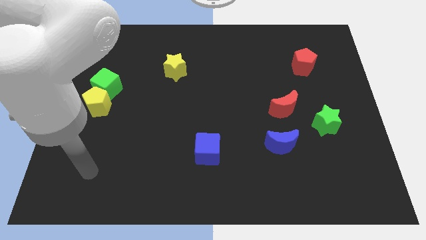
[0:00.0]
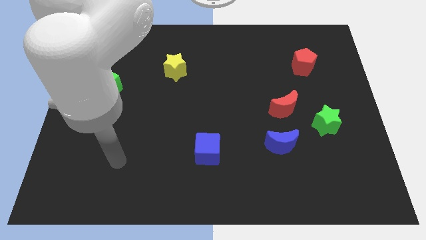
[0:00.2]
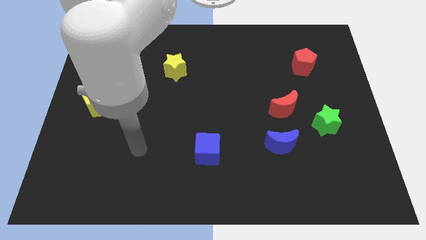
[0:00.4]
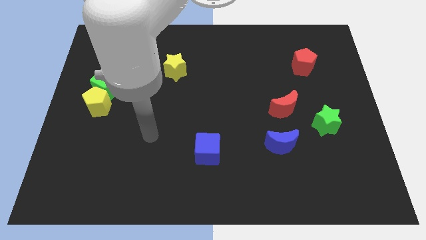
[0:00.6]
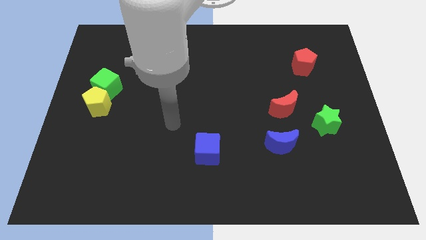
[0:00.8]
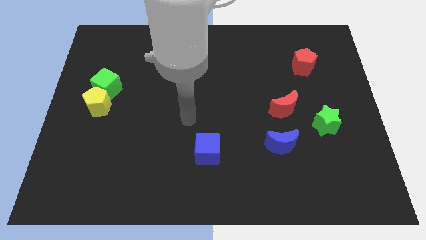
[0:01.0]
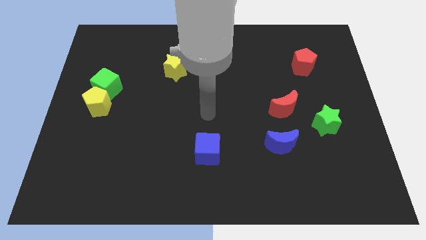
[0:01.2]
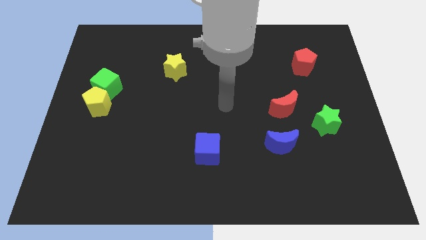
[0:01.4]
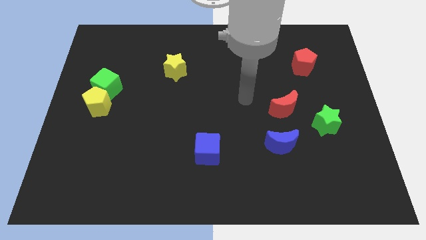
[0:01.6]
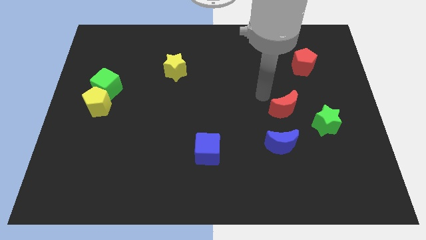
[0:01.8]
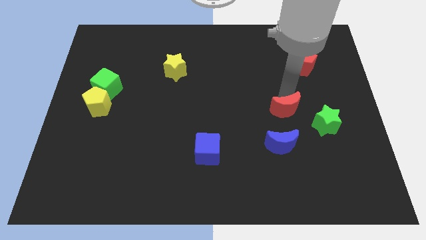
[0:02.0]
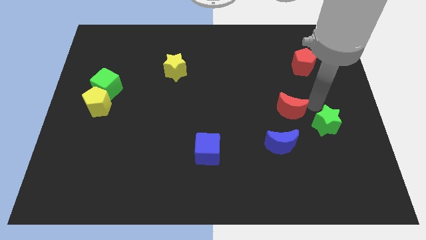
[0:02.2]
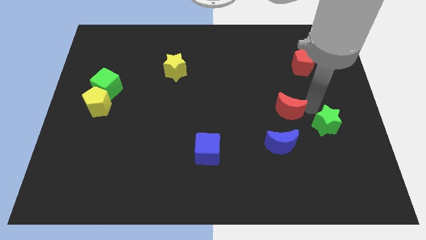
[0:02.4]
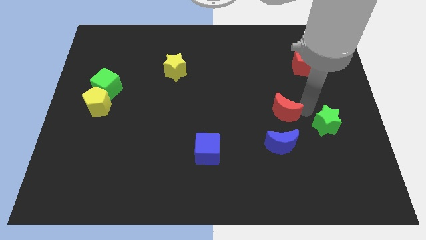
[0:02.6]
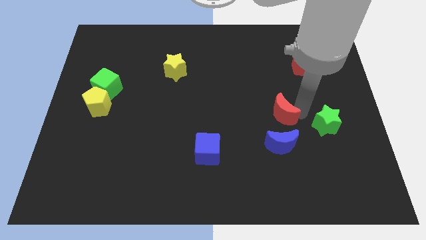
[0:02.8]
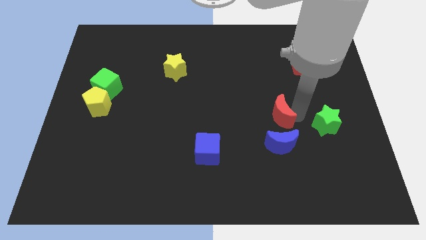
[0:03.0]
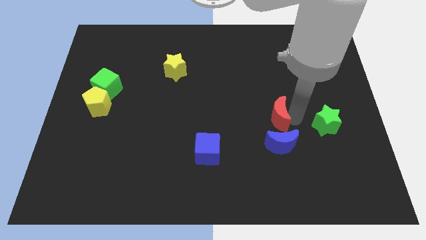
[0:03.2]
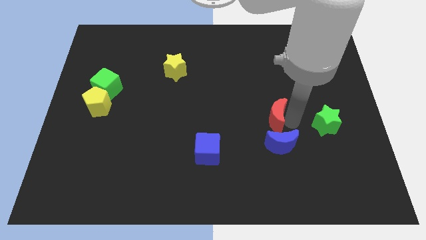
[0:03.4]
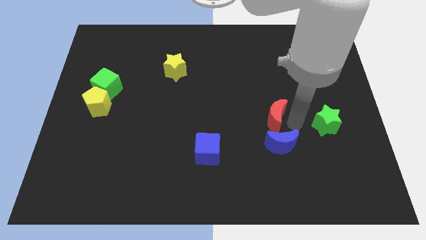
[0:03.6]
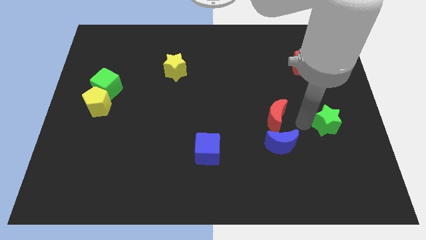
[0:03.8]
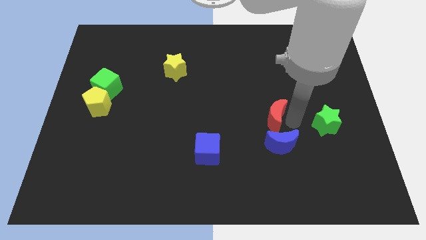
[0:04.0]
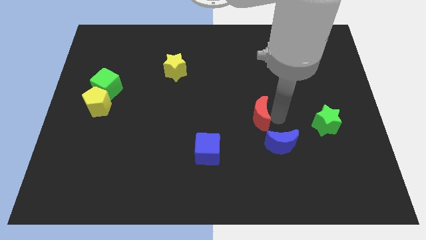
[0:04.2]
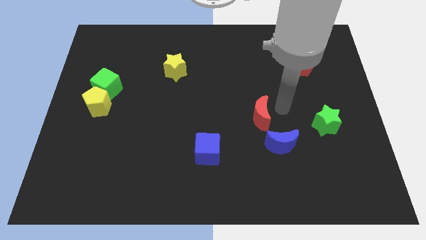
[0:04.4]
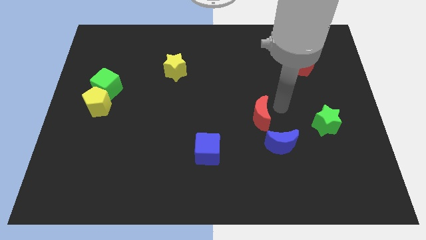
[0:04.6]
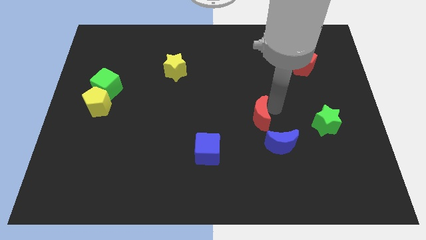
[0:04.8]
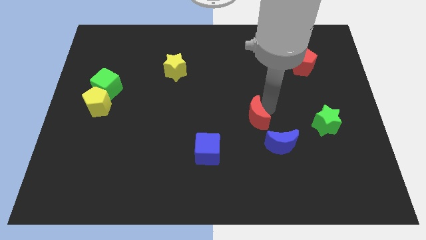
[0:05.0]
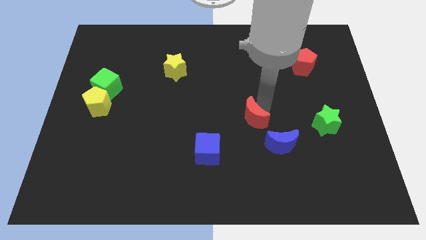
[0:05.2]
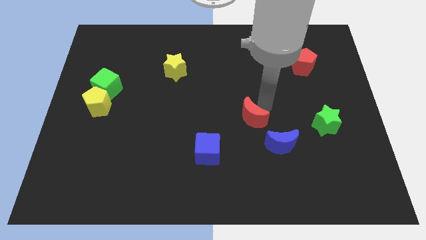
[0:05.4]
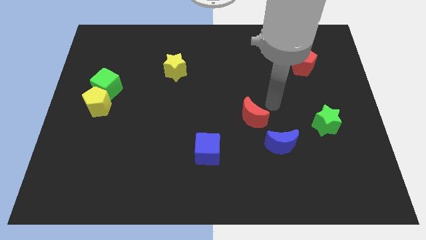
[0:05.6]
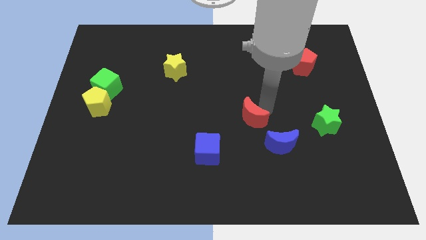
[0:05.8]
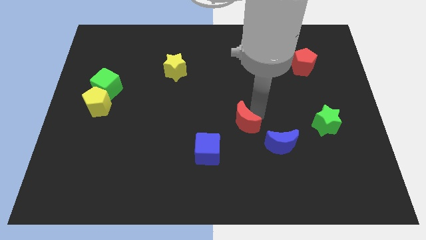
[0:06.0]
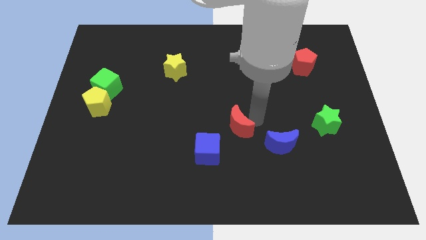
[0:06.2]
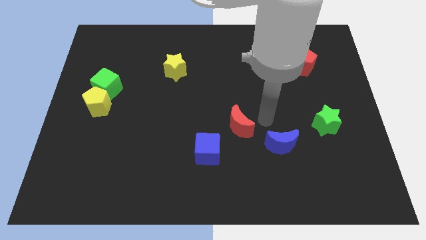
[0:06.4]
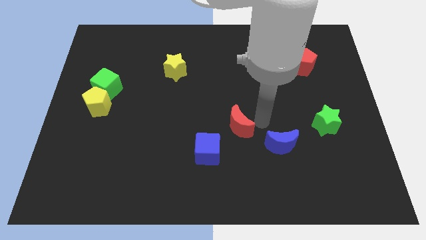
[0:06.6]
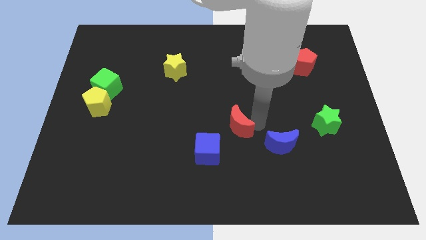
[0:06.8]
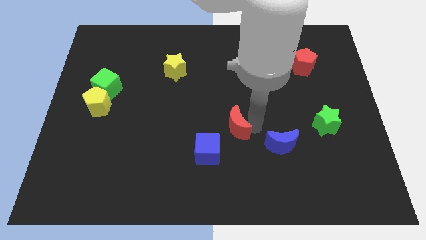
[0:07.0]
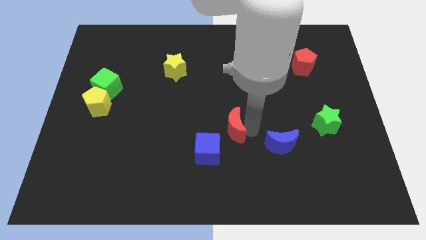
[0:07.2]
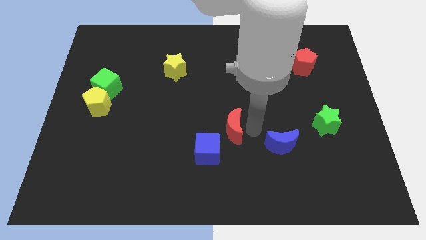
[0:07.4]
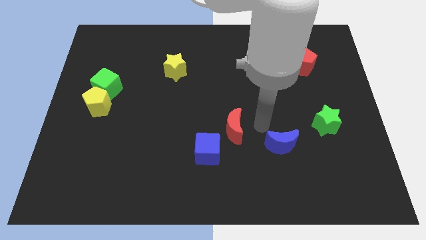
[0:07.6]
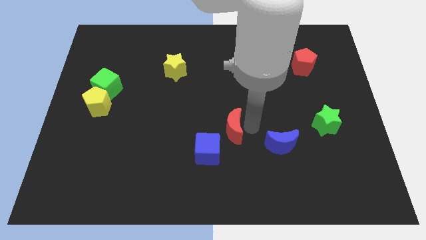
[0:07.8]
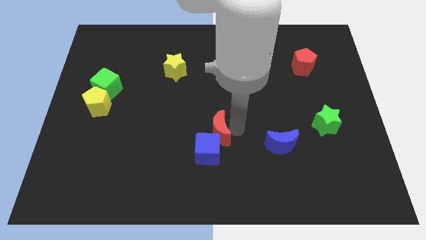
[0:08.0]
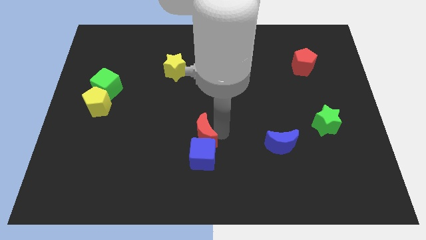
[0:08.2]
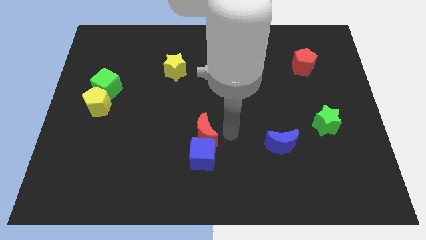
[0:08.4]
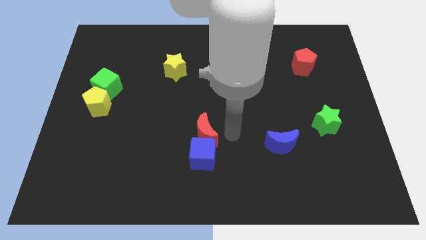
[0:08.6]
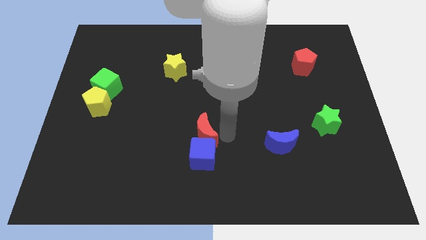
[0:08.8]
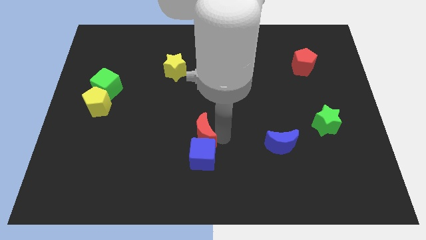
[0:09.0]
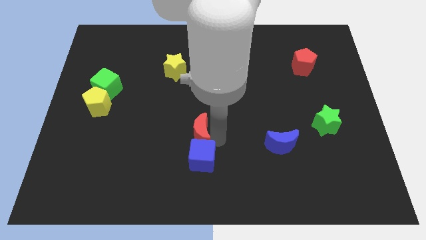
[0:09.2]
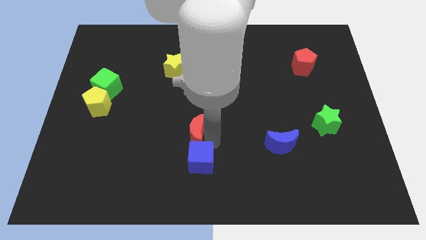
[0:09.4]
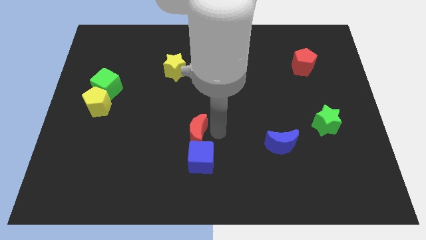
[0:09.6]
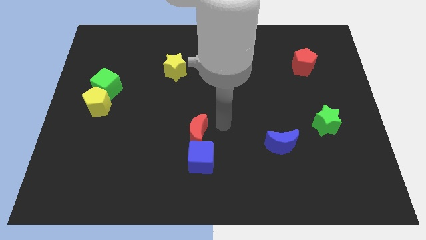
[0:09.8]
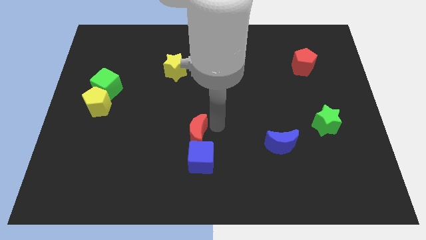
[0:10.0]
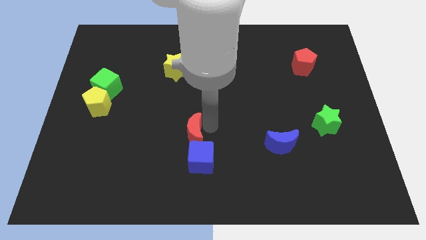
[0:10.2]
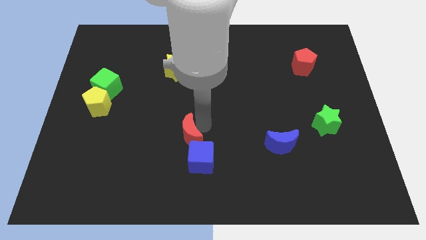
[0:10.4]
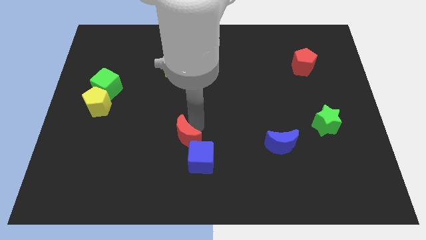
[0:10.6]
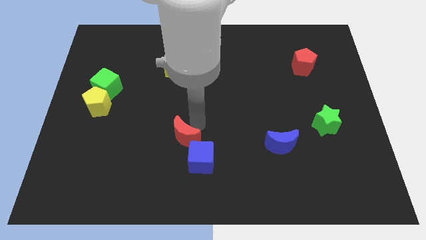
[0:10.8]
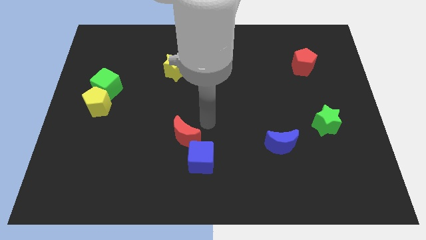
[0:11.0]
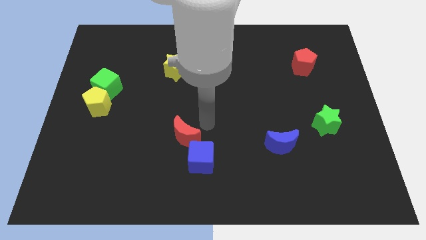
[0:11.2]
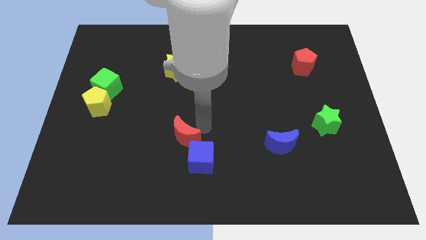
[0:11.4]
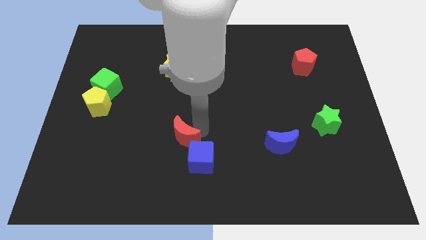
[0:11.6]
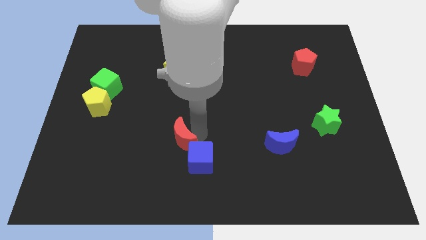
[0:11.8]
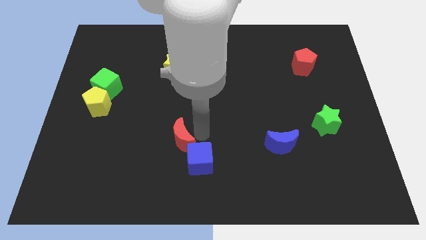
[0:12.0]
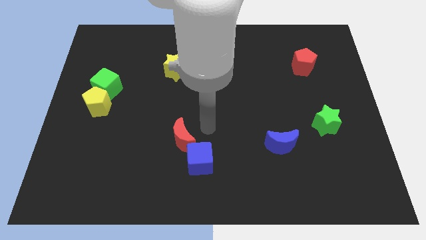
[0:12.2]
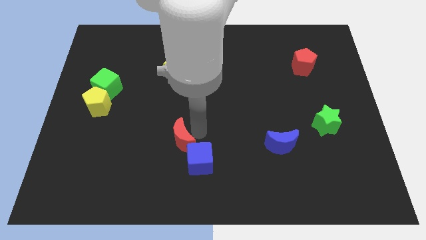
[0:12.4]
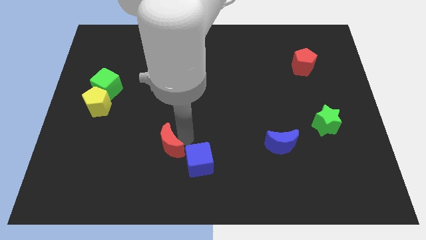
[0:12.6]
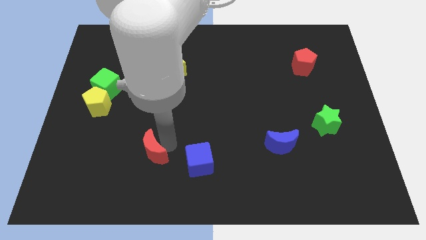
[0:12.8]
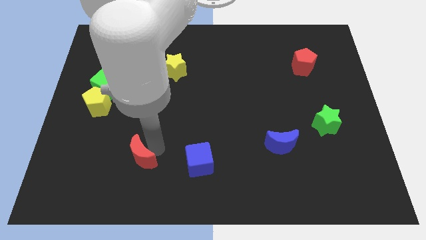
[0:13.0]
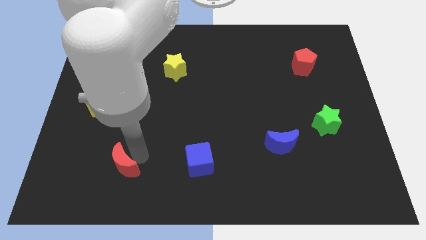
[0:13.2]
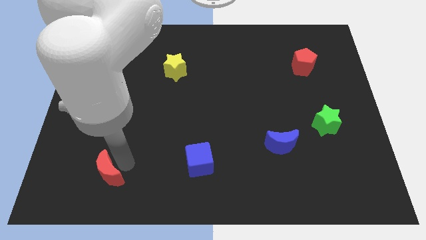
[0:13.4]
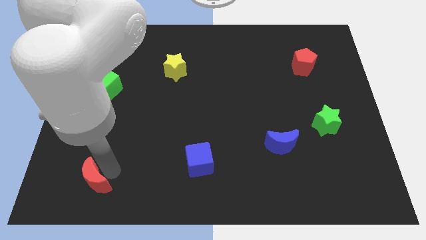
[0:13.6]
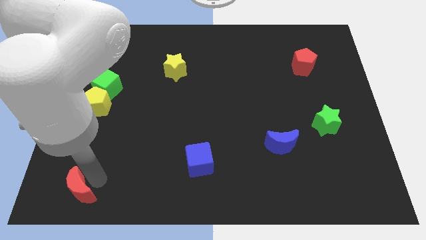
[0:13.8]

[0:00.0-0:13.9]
slide the red moon to the bottom left corner
